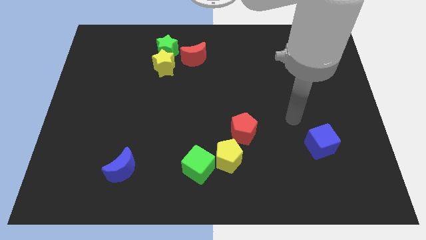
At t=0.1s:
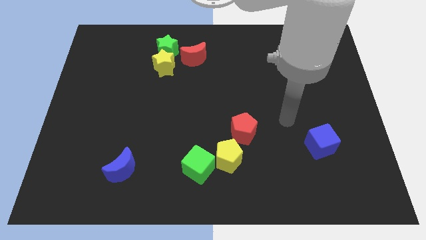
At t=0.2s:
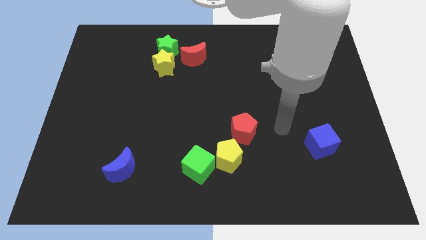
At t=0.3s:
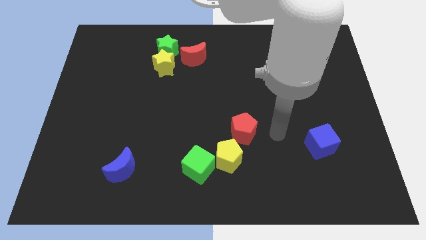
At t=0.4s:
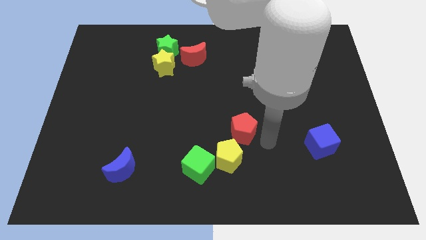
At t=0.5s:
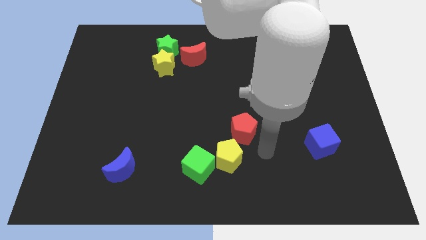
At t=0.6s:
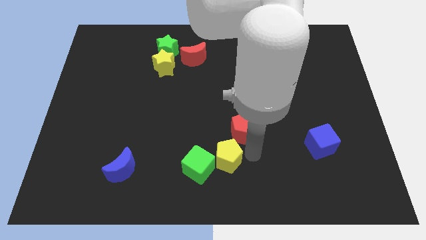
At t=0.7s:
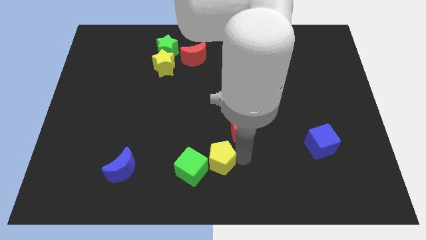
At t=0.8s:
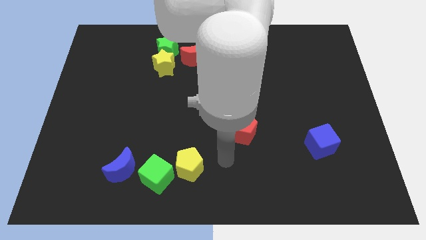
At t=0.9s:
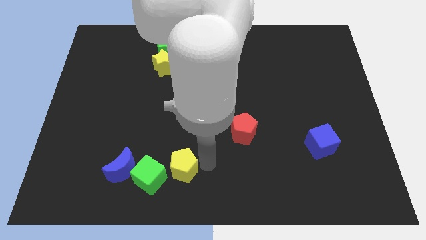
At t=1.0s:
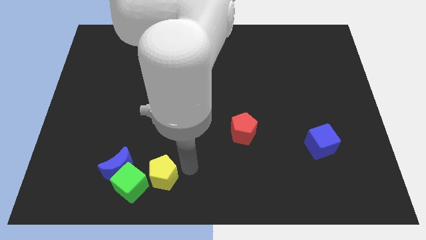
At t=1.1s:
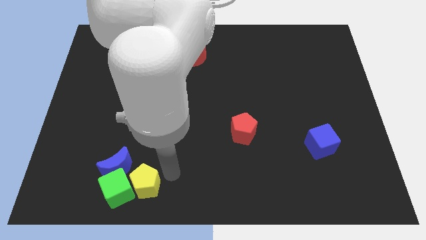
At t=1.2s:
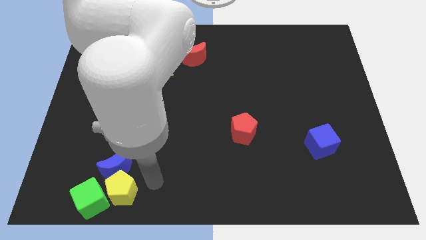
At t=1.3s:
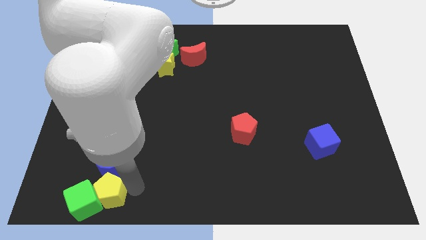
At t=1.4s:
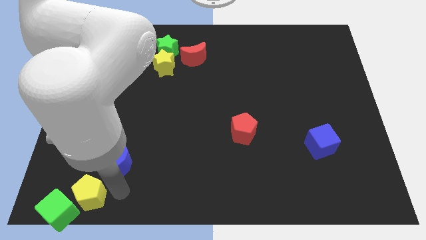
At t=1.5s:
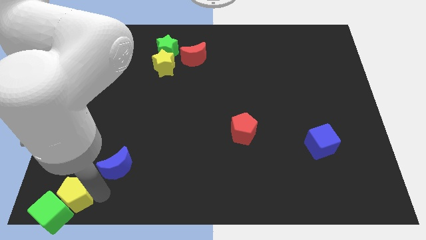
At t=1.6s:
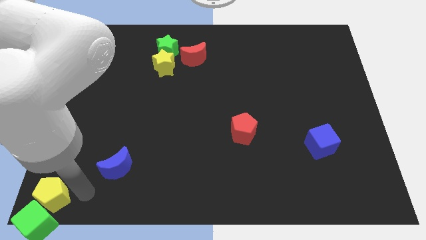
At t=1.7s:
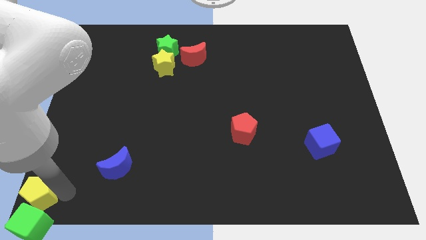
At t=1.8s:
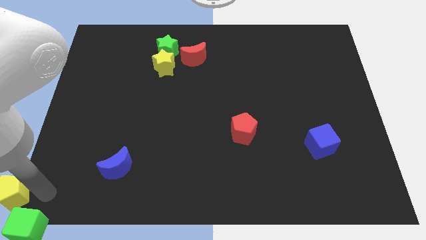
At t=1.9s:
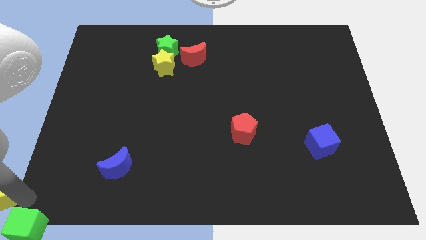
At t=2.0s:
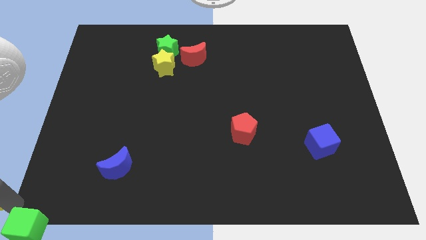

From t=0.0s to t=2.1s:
pull the green cube apart from the yellow pentagon

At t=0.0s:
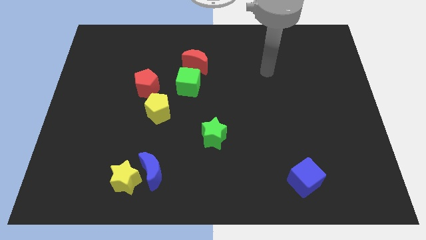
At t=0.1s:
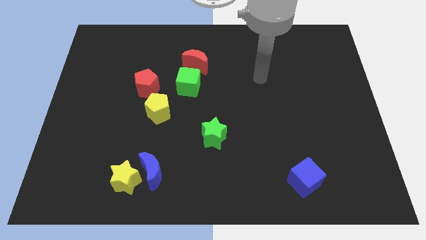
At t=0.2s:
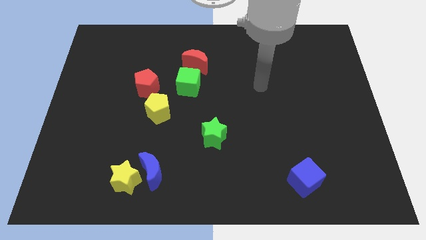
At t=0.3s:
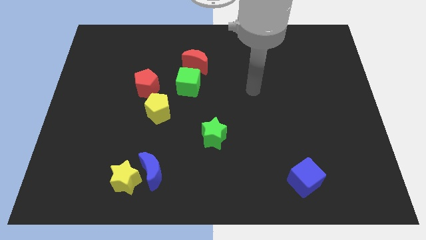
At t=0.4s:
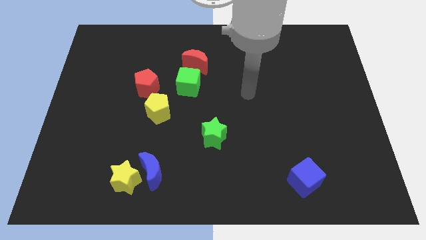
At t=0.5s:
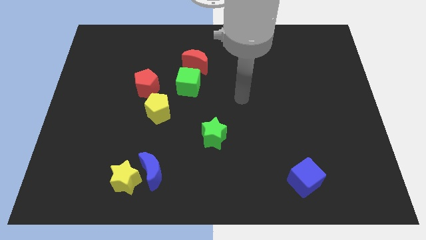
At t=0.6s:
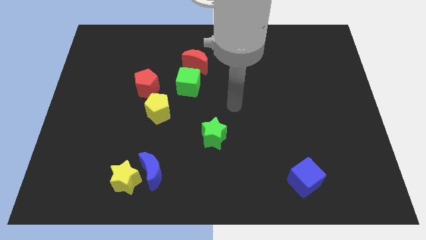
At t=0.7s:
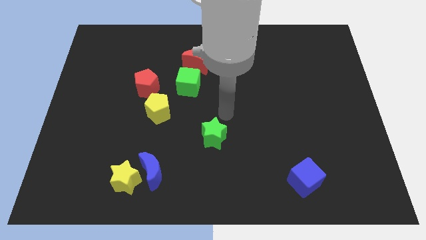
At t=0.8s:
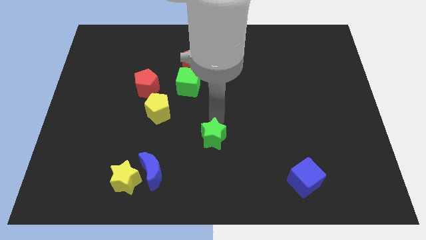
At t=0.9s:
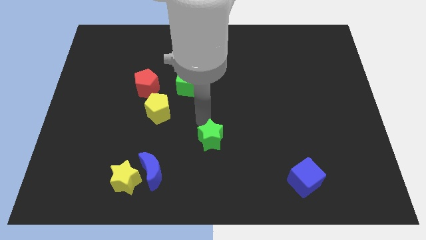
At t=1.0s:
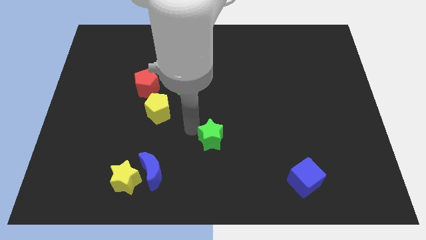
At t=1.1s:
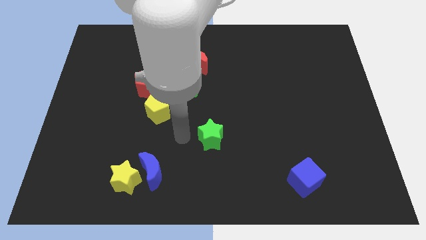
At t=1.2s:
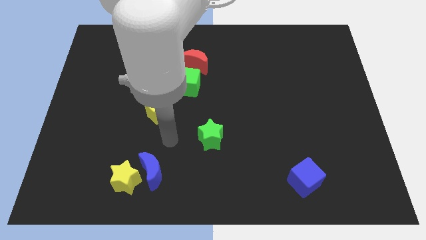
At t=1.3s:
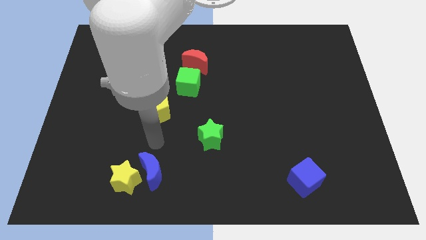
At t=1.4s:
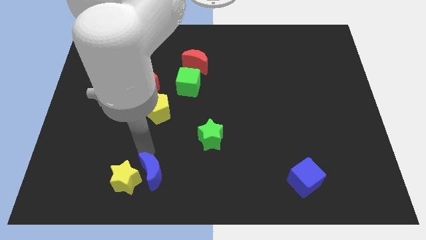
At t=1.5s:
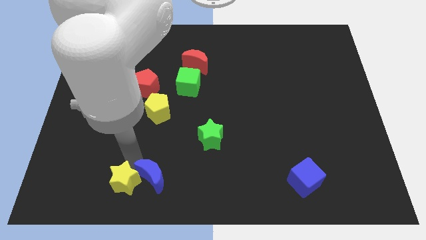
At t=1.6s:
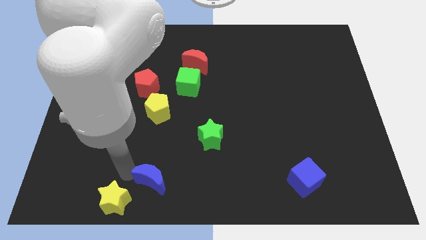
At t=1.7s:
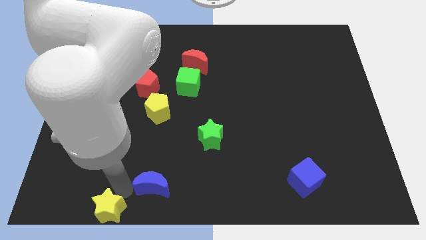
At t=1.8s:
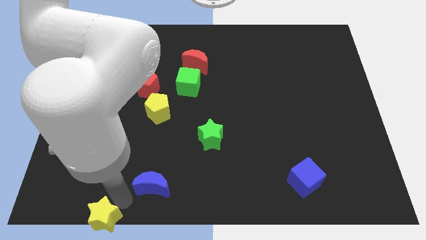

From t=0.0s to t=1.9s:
move the blue moon away from the yellow star

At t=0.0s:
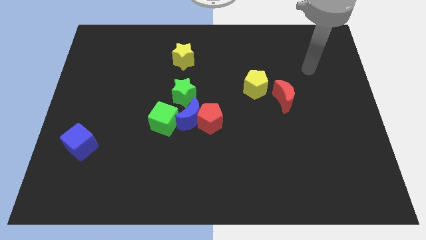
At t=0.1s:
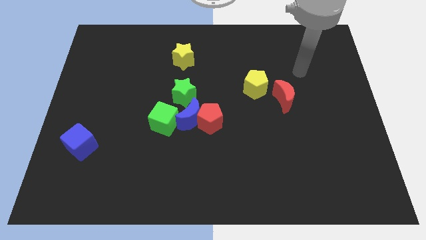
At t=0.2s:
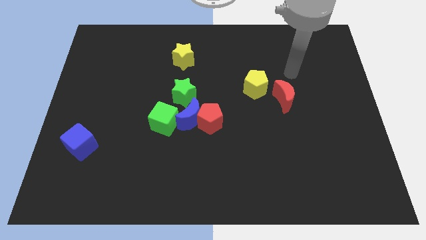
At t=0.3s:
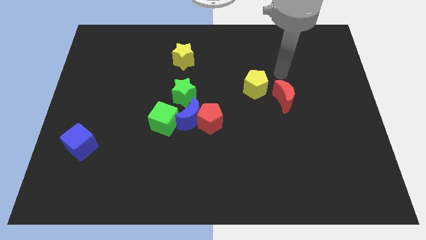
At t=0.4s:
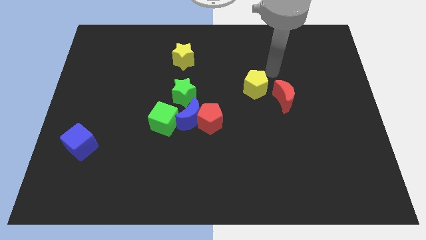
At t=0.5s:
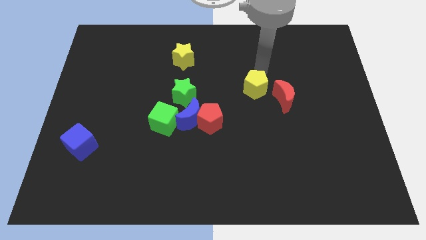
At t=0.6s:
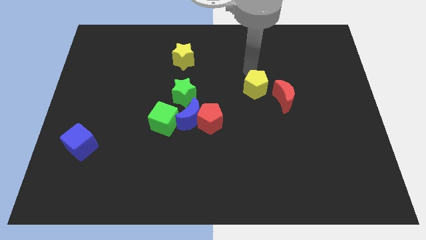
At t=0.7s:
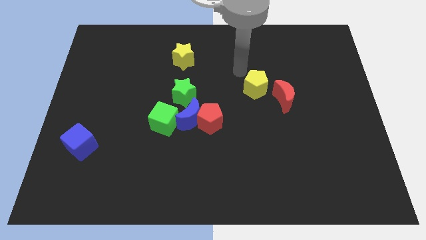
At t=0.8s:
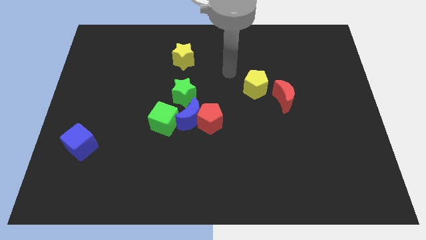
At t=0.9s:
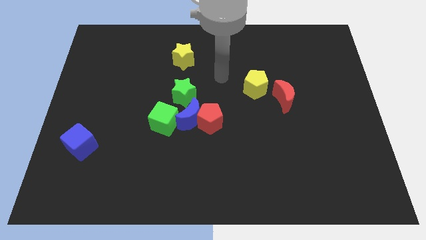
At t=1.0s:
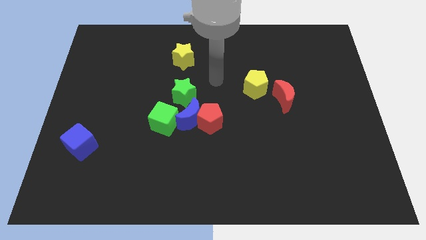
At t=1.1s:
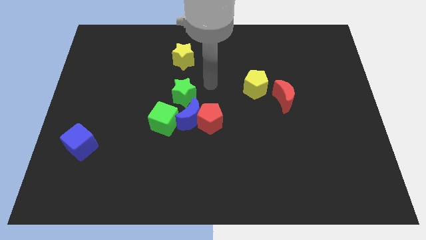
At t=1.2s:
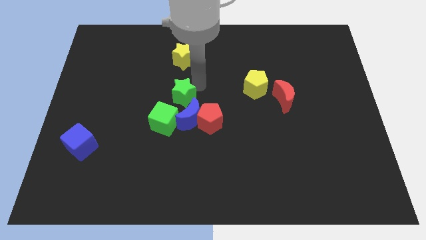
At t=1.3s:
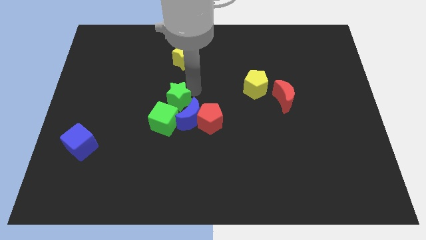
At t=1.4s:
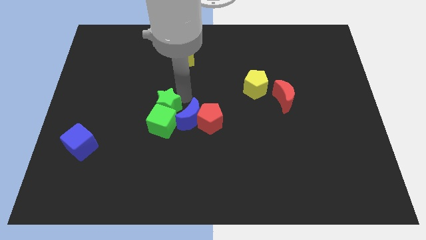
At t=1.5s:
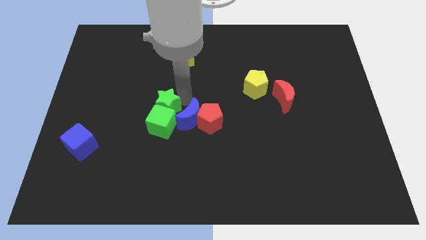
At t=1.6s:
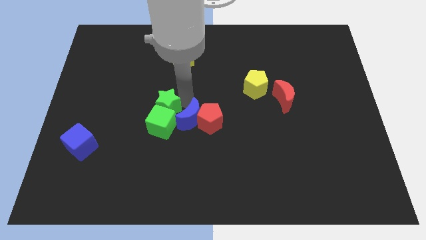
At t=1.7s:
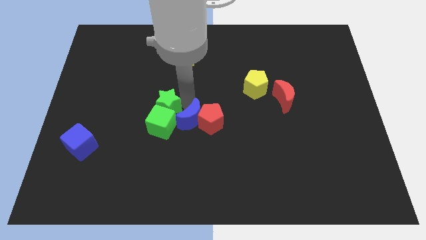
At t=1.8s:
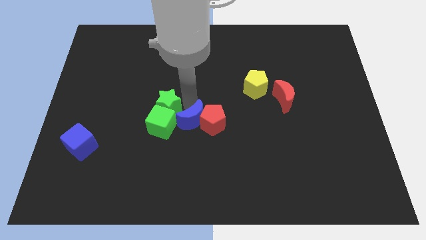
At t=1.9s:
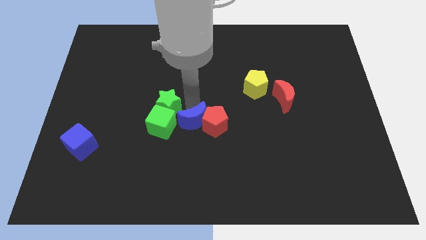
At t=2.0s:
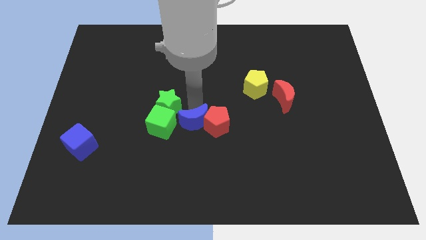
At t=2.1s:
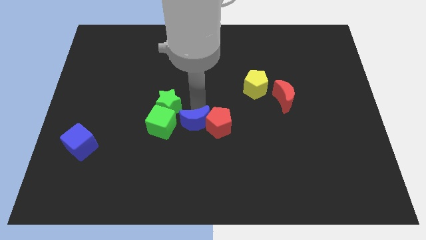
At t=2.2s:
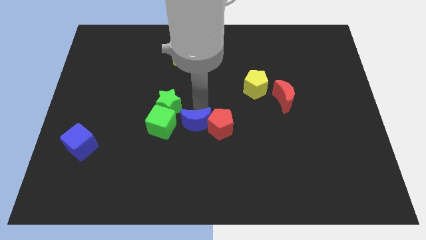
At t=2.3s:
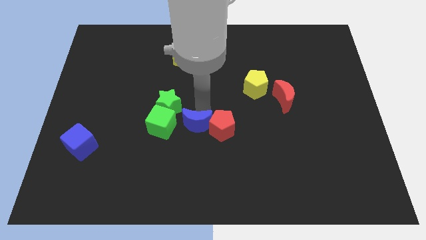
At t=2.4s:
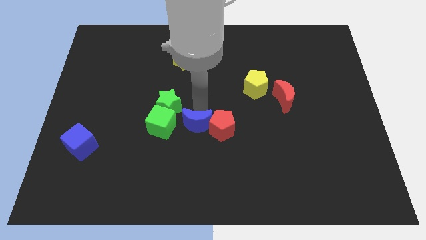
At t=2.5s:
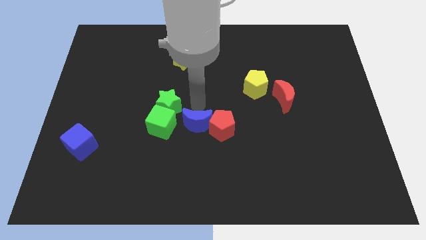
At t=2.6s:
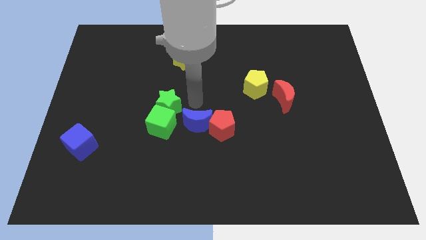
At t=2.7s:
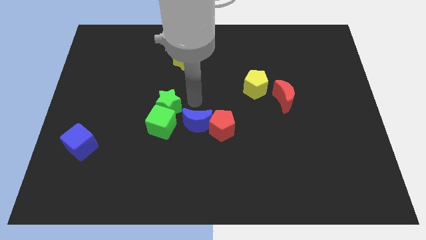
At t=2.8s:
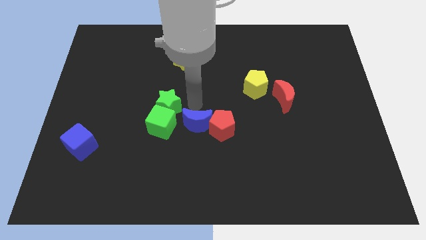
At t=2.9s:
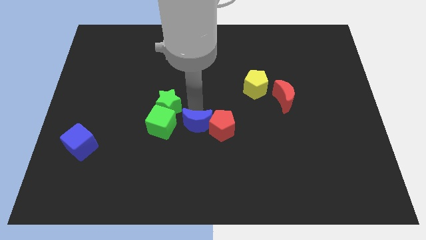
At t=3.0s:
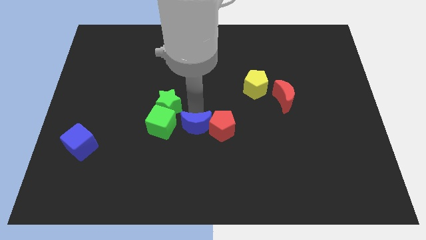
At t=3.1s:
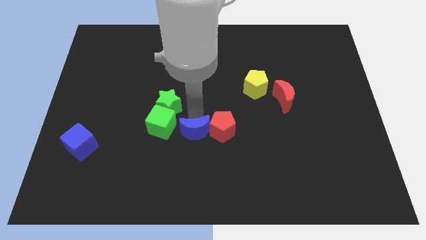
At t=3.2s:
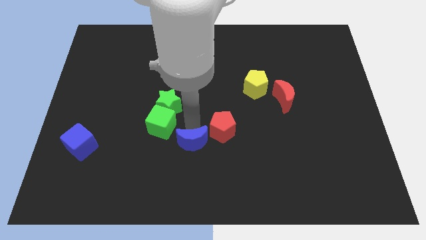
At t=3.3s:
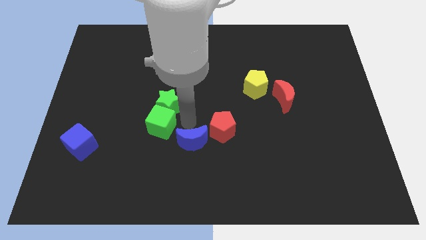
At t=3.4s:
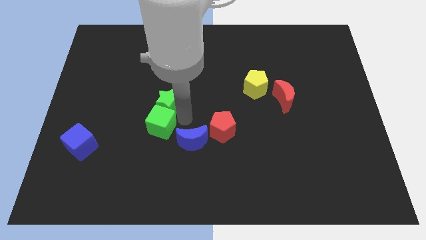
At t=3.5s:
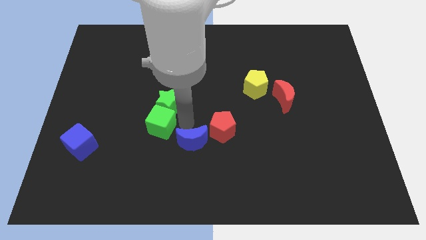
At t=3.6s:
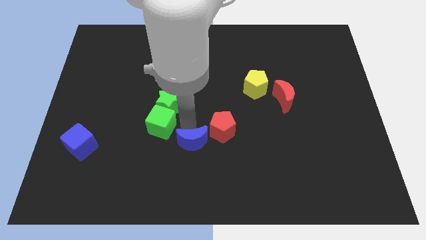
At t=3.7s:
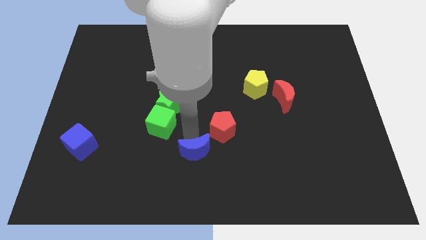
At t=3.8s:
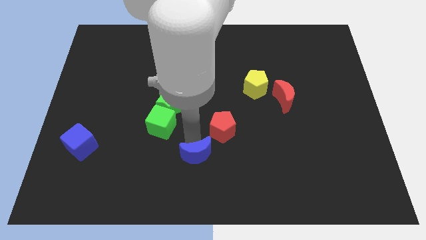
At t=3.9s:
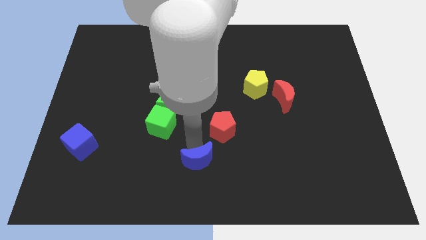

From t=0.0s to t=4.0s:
move the blue moon away from the group of blocks

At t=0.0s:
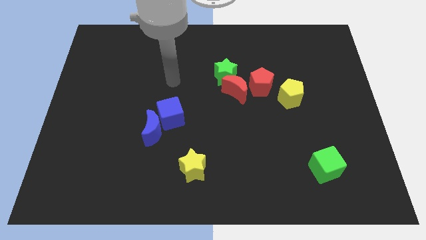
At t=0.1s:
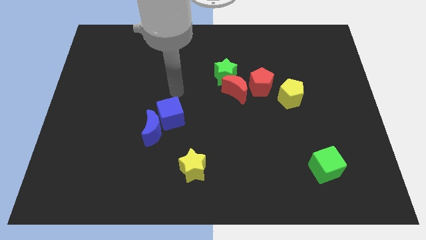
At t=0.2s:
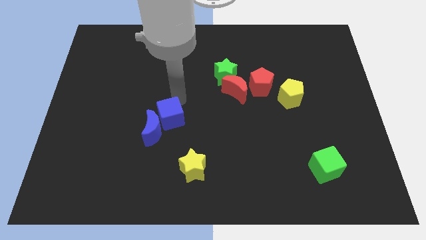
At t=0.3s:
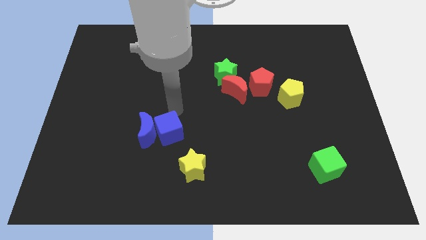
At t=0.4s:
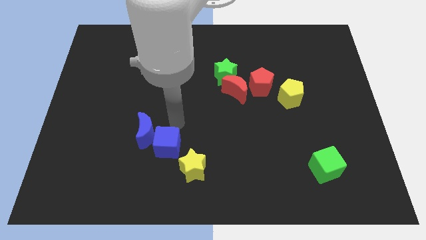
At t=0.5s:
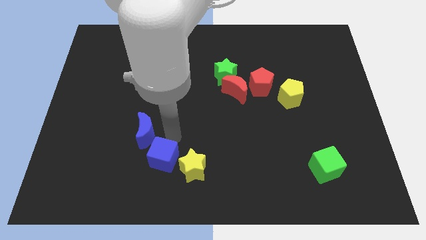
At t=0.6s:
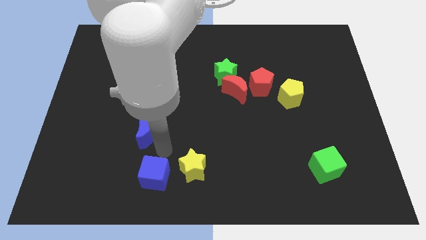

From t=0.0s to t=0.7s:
move the blue moon away from the blue cube

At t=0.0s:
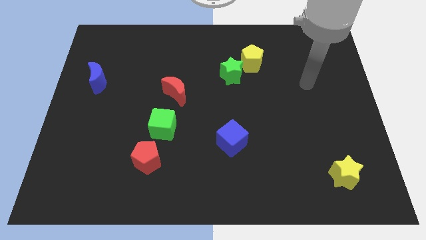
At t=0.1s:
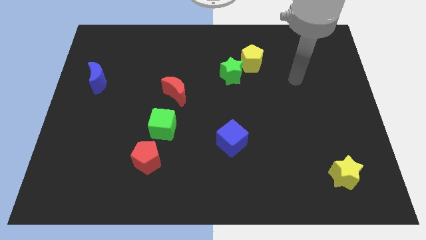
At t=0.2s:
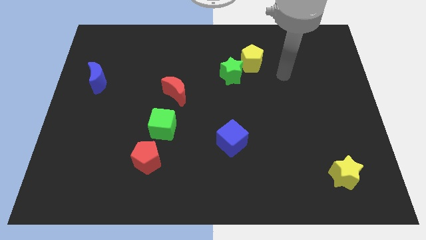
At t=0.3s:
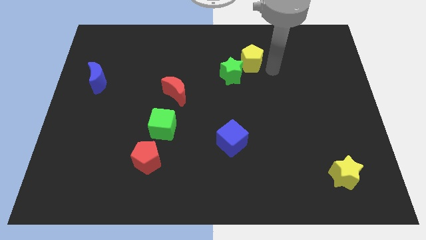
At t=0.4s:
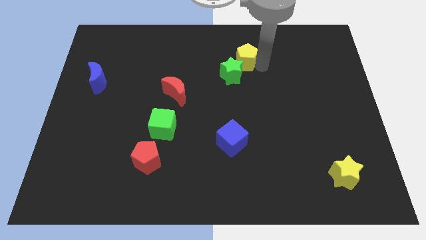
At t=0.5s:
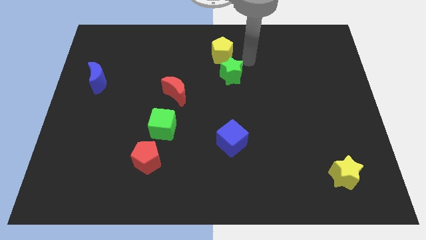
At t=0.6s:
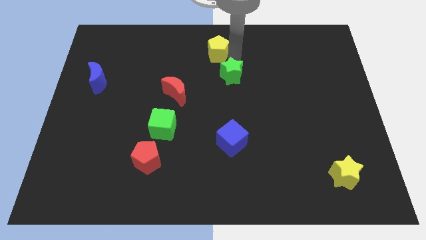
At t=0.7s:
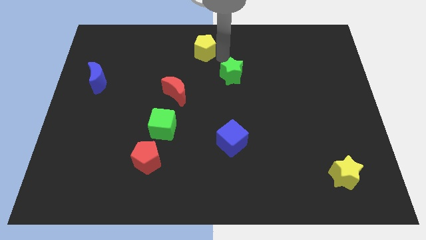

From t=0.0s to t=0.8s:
separate the green star from the yellow pentagon
